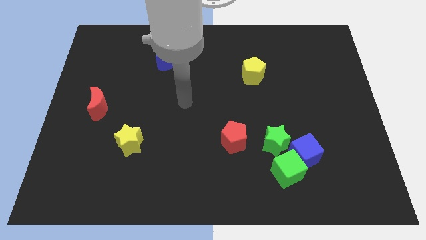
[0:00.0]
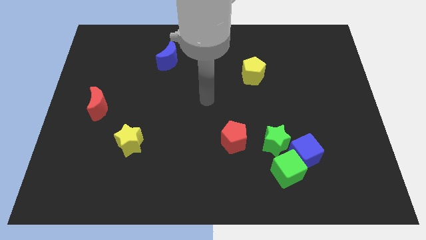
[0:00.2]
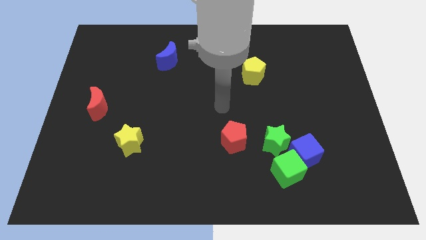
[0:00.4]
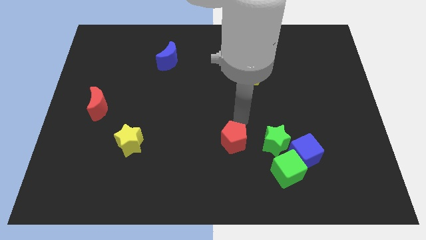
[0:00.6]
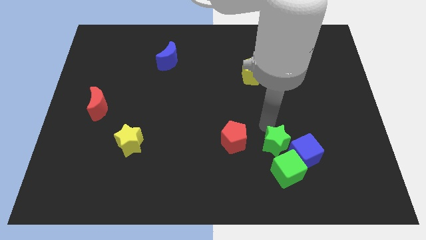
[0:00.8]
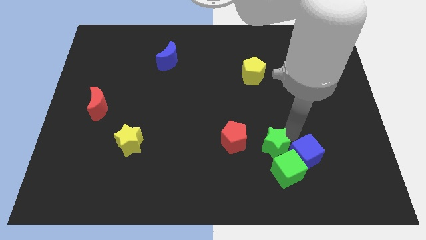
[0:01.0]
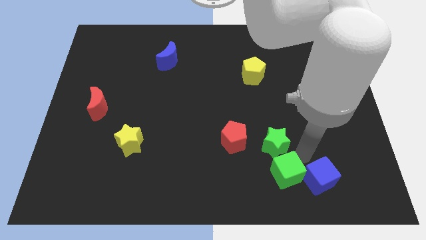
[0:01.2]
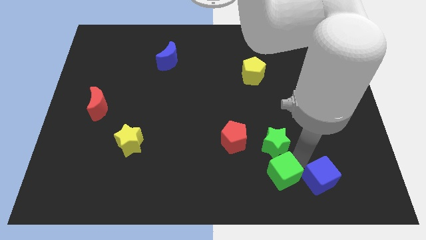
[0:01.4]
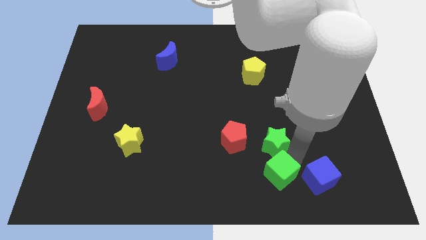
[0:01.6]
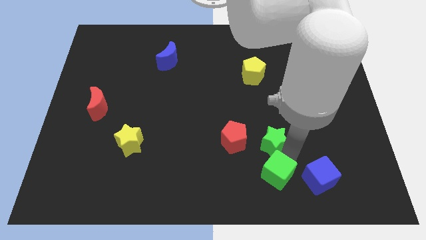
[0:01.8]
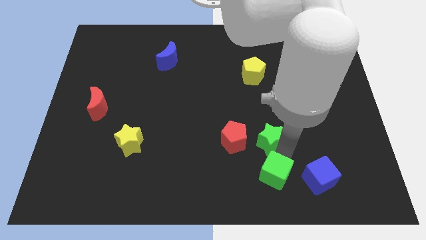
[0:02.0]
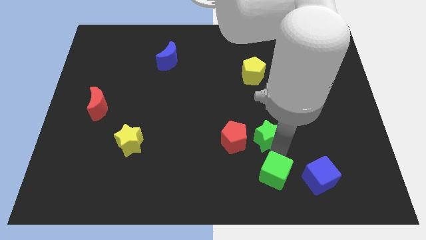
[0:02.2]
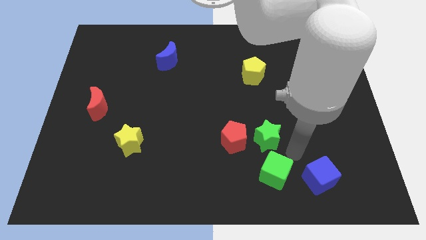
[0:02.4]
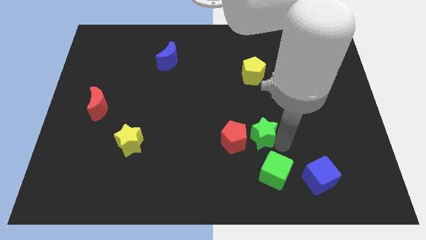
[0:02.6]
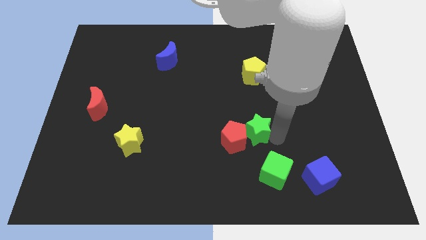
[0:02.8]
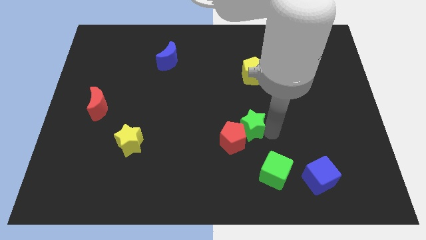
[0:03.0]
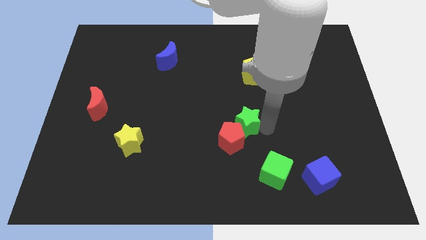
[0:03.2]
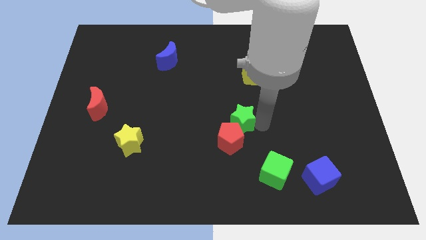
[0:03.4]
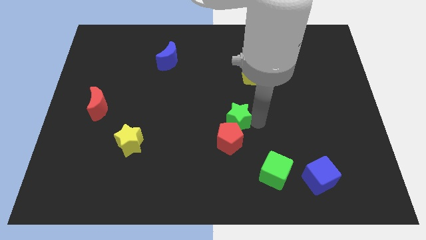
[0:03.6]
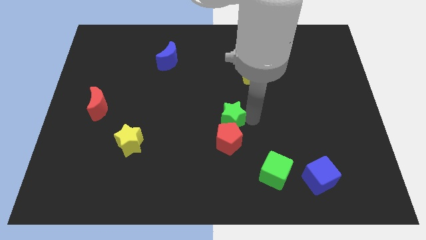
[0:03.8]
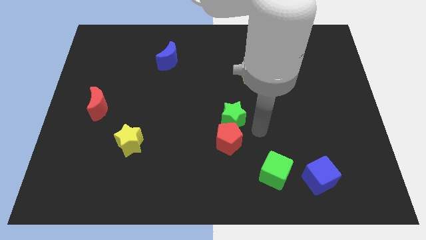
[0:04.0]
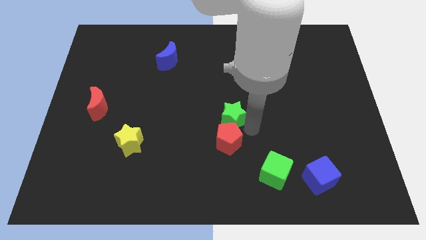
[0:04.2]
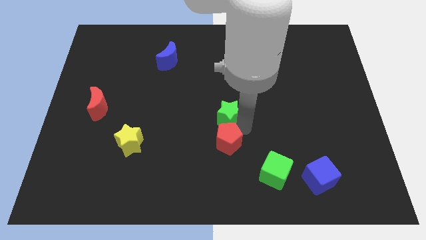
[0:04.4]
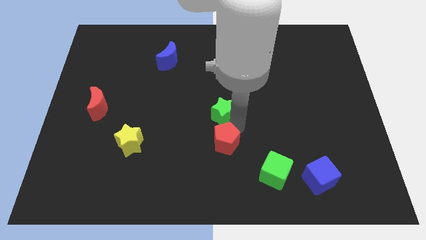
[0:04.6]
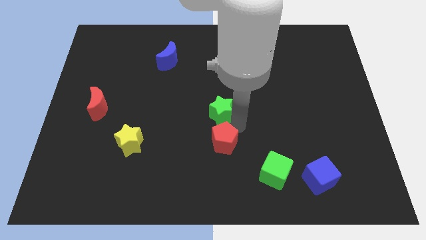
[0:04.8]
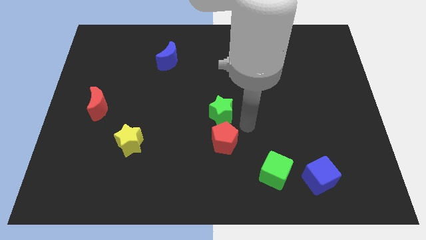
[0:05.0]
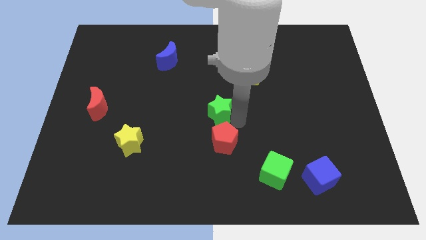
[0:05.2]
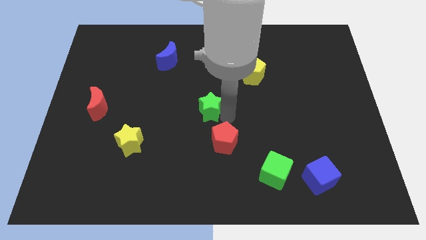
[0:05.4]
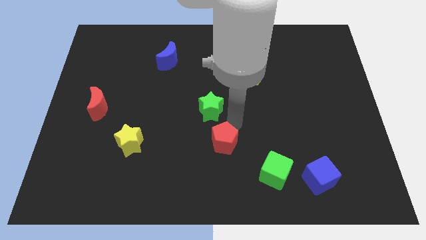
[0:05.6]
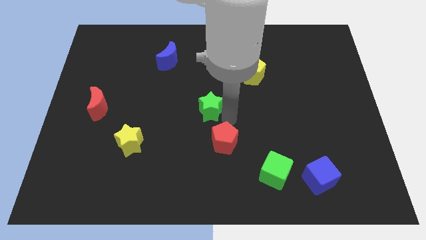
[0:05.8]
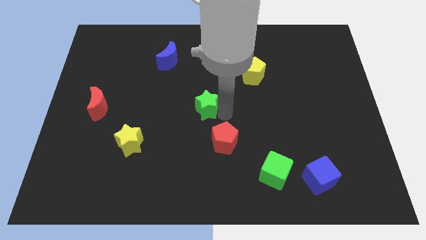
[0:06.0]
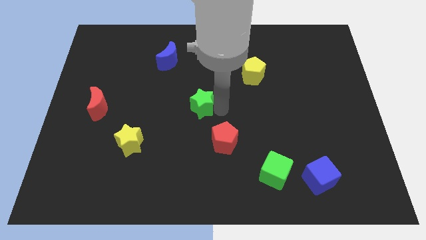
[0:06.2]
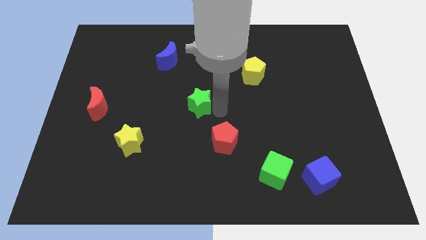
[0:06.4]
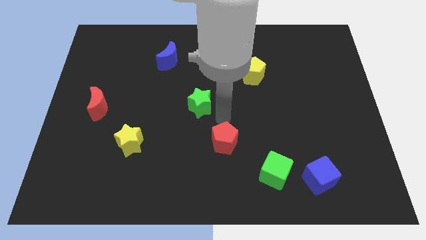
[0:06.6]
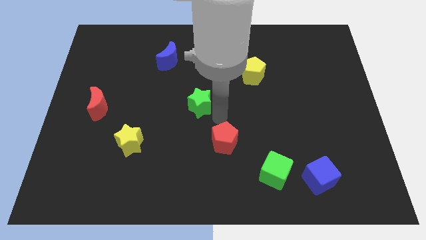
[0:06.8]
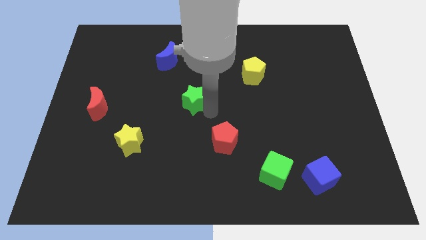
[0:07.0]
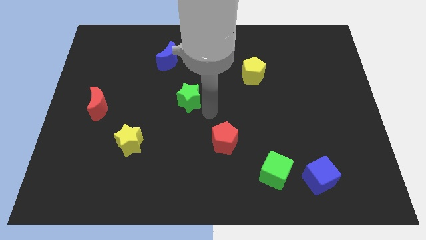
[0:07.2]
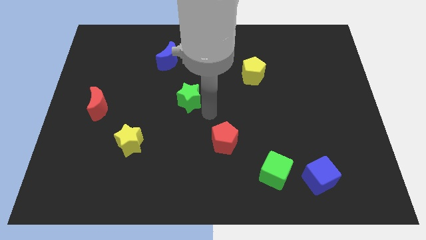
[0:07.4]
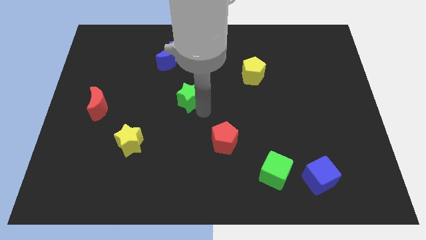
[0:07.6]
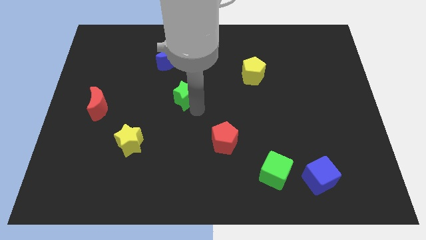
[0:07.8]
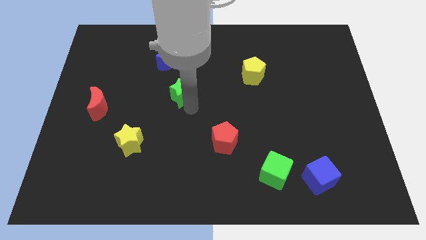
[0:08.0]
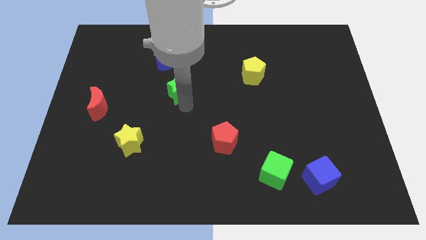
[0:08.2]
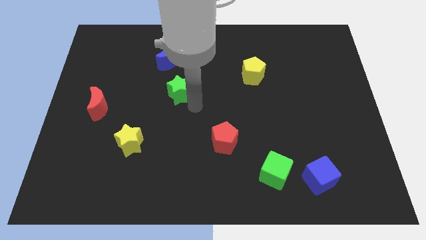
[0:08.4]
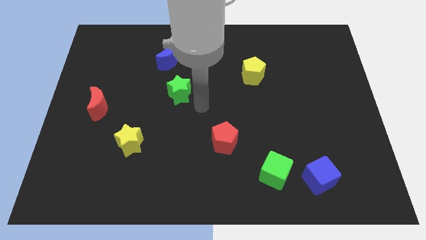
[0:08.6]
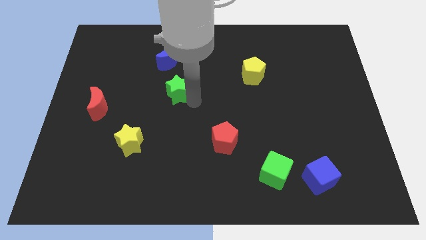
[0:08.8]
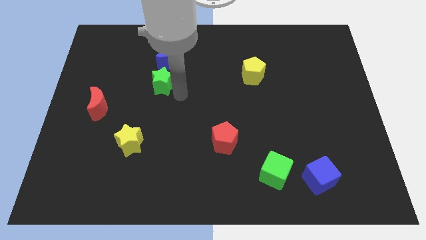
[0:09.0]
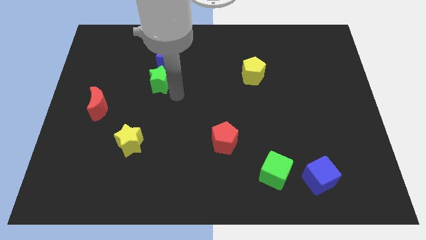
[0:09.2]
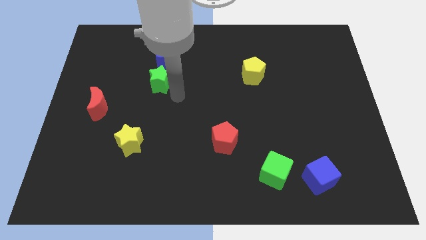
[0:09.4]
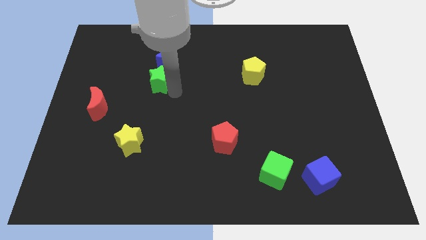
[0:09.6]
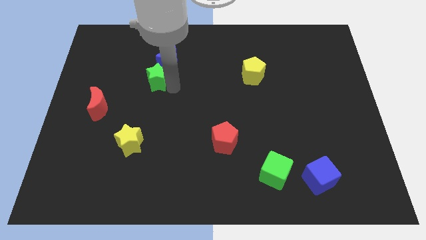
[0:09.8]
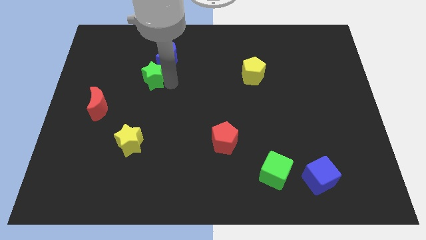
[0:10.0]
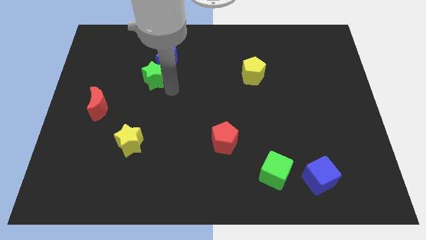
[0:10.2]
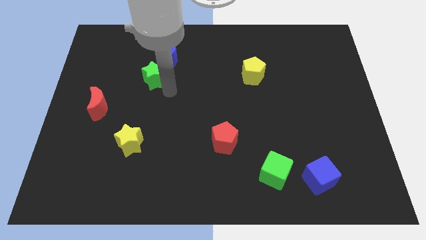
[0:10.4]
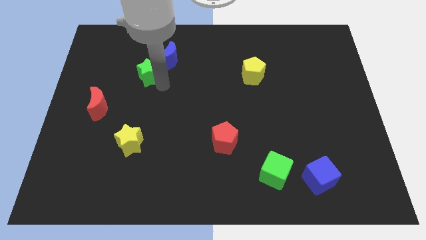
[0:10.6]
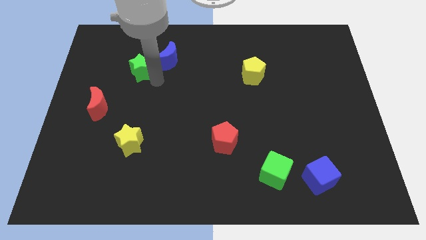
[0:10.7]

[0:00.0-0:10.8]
put the green star to the left of the blue moon

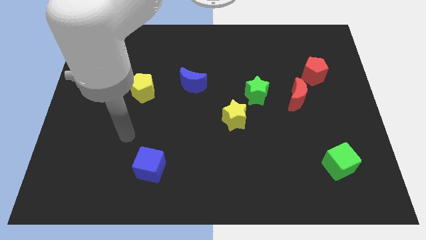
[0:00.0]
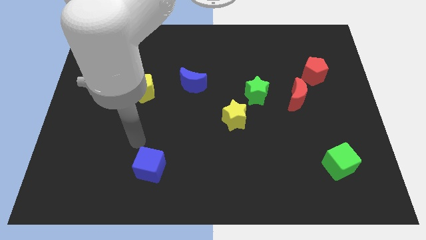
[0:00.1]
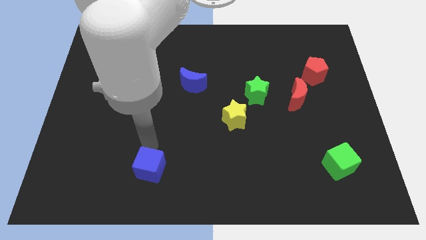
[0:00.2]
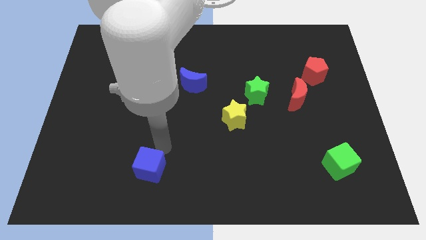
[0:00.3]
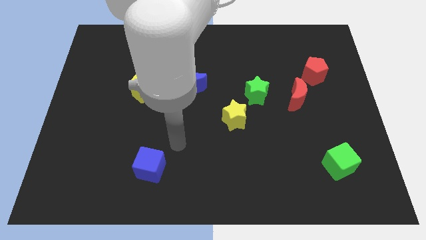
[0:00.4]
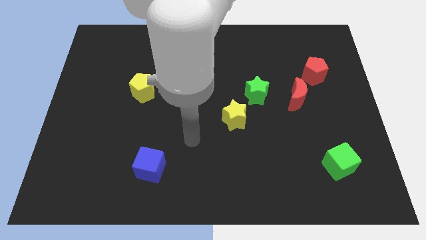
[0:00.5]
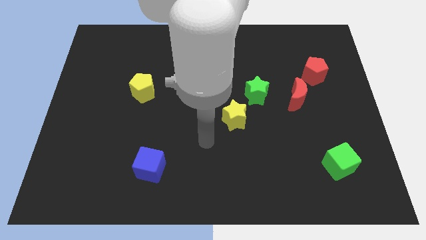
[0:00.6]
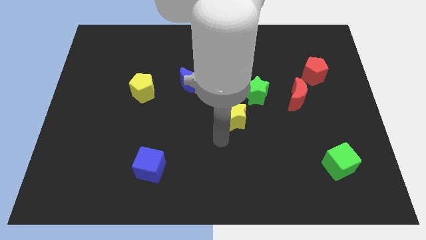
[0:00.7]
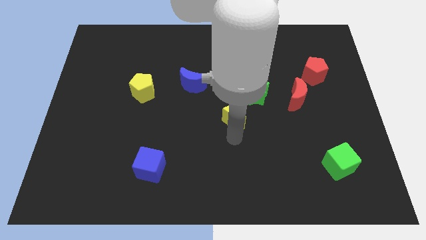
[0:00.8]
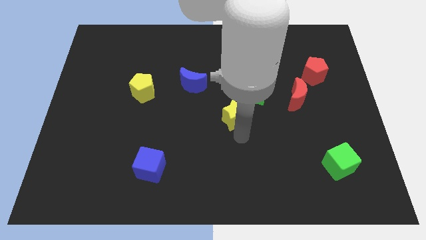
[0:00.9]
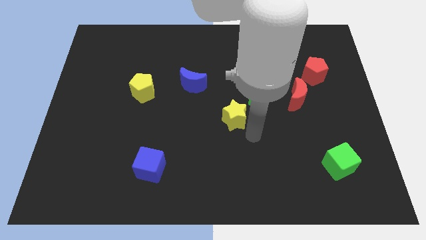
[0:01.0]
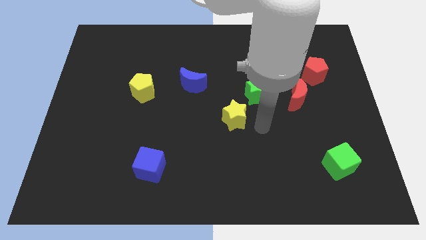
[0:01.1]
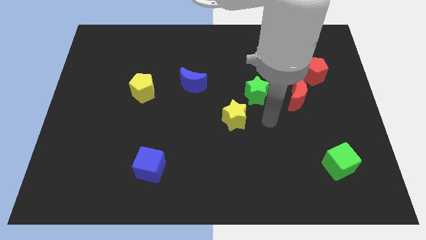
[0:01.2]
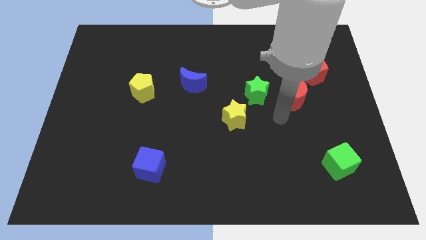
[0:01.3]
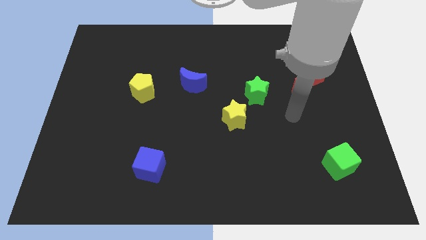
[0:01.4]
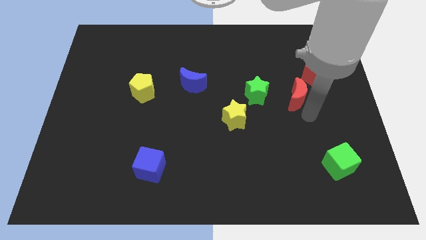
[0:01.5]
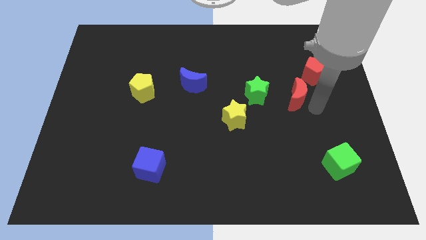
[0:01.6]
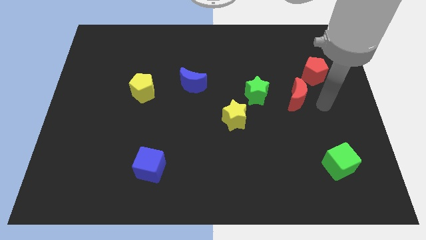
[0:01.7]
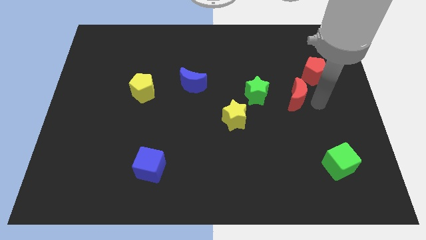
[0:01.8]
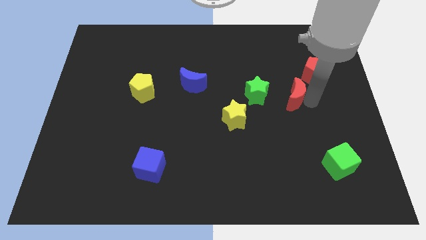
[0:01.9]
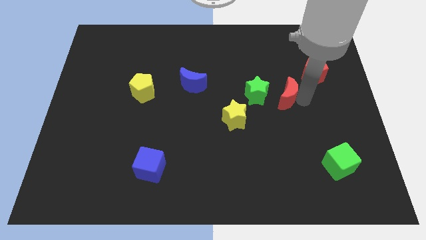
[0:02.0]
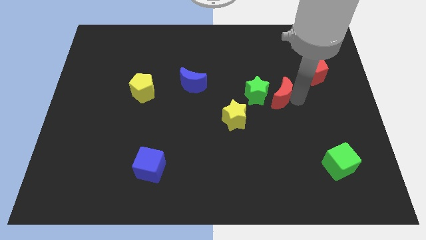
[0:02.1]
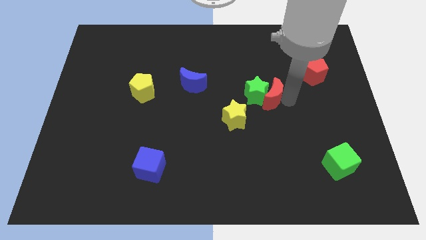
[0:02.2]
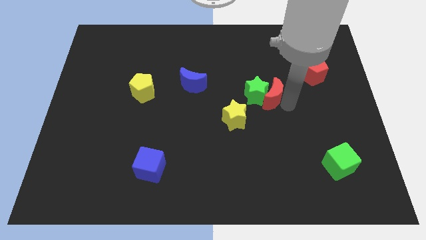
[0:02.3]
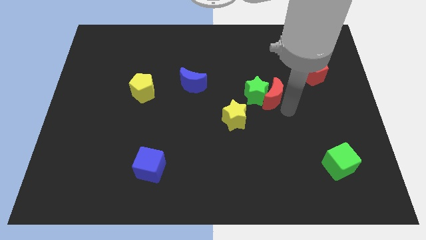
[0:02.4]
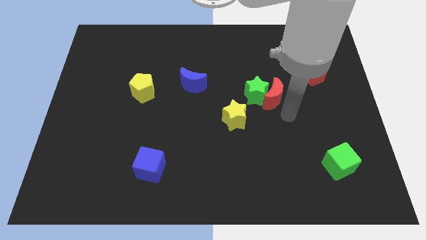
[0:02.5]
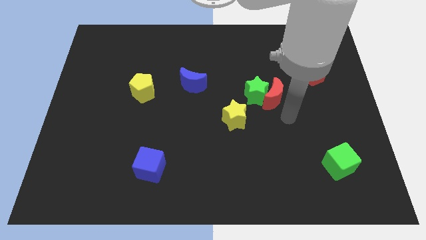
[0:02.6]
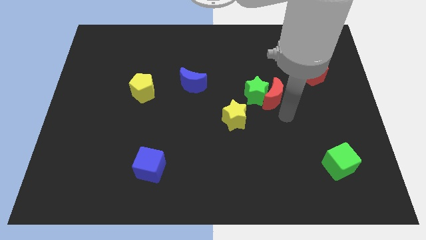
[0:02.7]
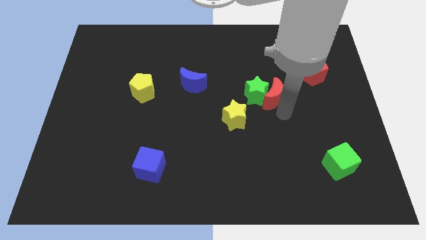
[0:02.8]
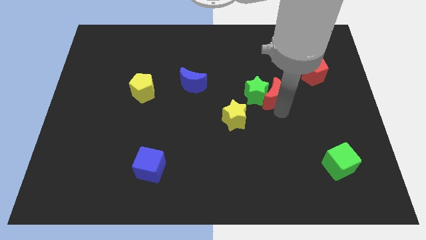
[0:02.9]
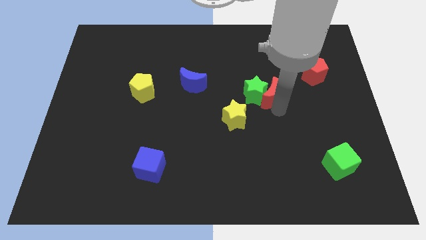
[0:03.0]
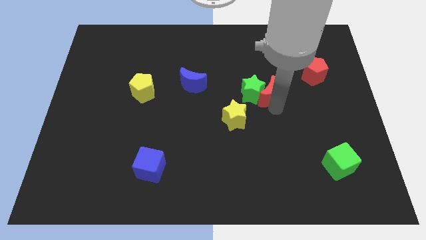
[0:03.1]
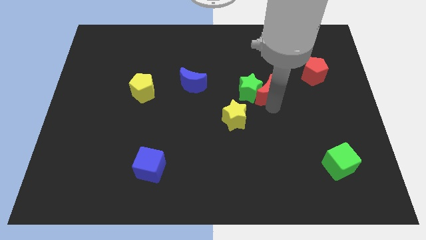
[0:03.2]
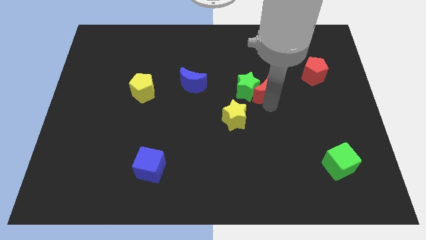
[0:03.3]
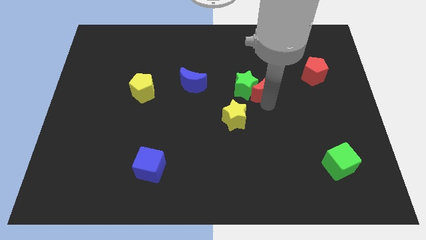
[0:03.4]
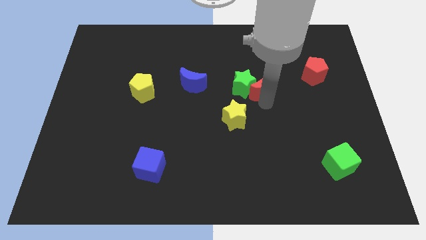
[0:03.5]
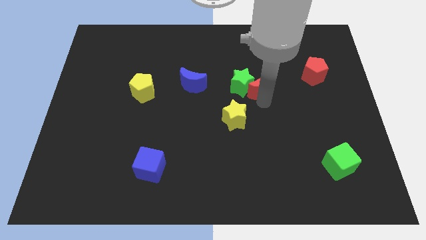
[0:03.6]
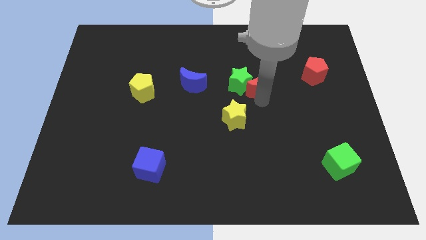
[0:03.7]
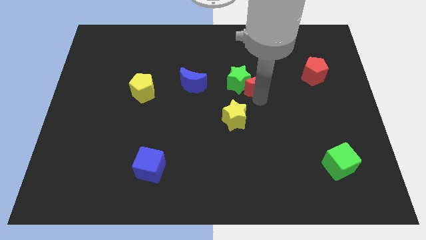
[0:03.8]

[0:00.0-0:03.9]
push the red moon to the right side of the blue moon
